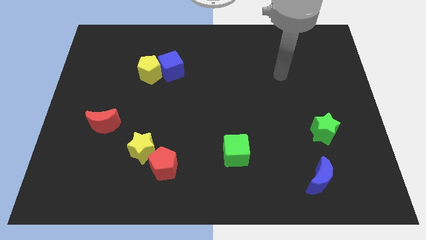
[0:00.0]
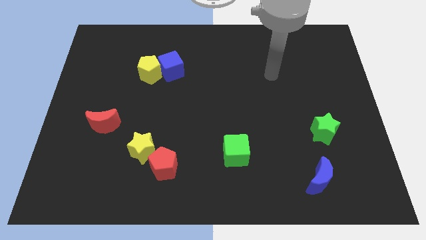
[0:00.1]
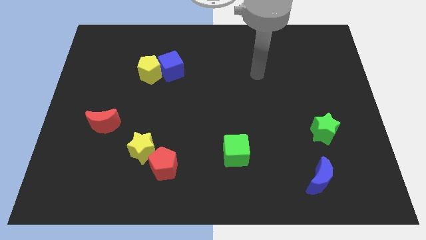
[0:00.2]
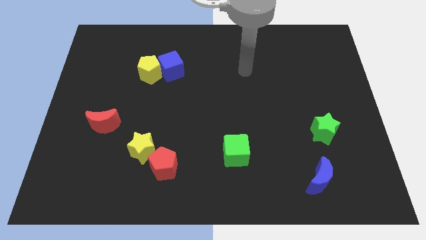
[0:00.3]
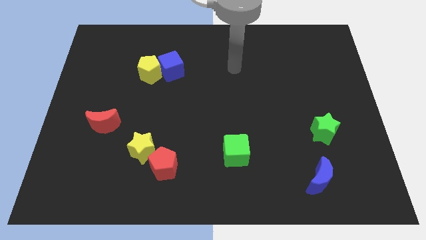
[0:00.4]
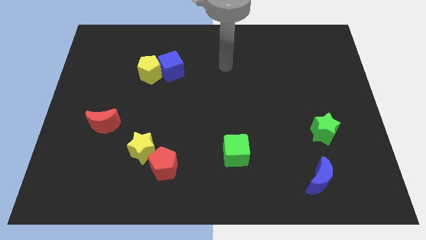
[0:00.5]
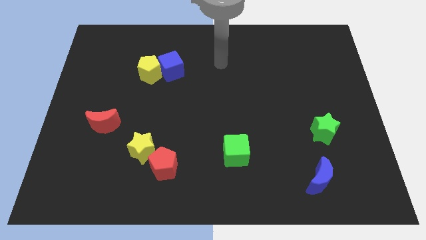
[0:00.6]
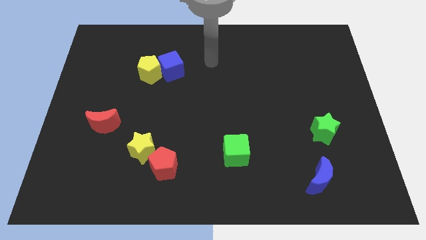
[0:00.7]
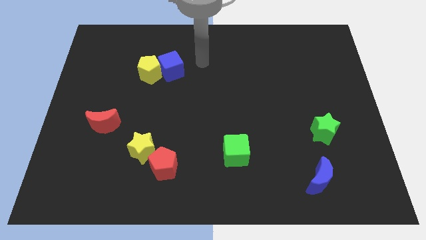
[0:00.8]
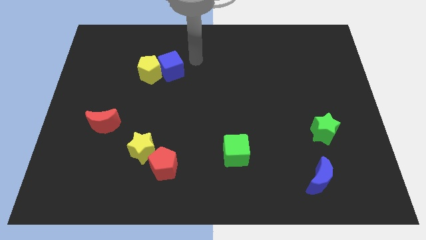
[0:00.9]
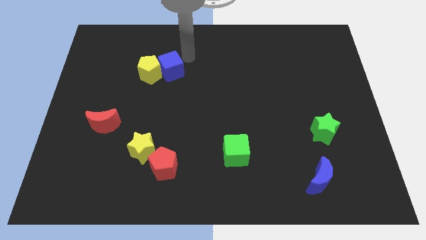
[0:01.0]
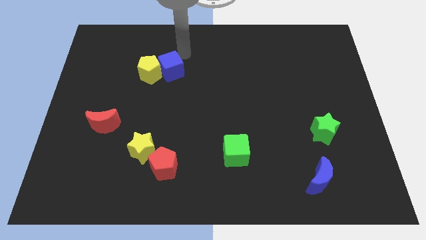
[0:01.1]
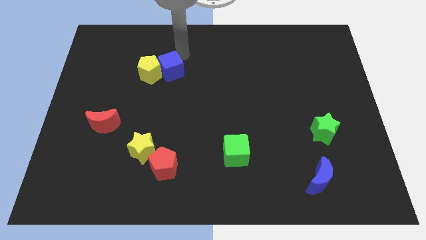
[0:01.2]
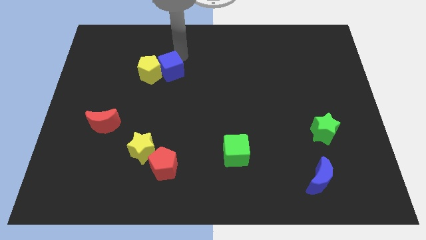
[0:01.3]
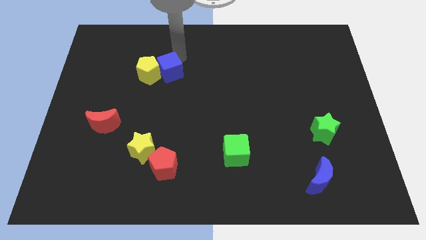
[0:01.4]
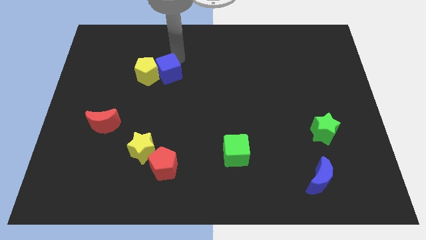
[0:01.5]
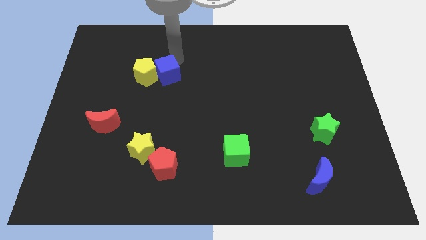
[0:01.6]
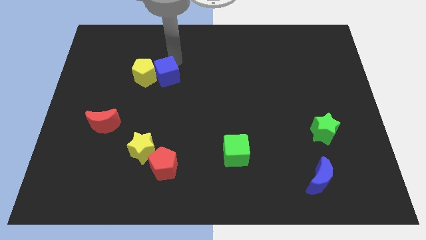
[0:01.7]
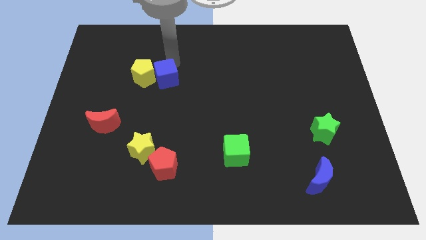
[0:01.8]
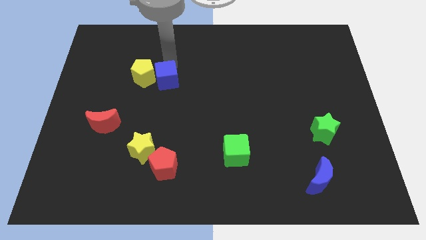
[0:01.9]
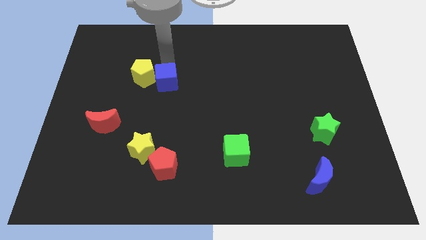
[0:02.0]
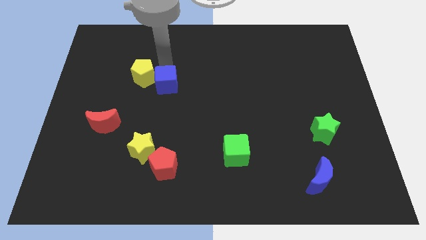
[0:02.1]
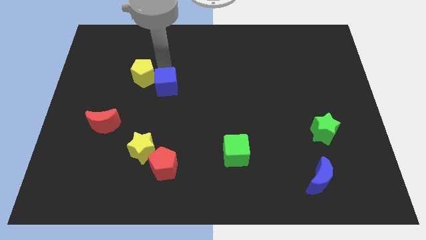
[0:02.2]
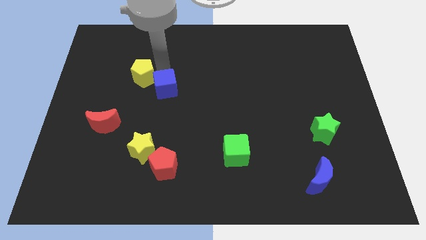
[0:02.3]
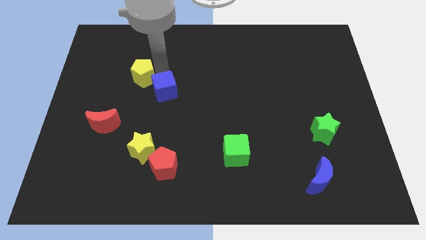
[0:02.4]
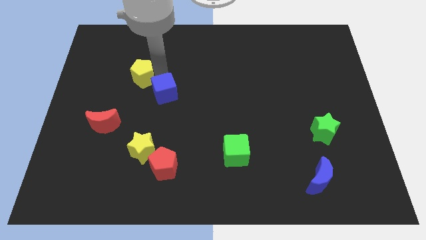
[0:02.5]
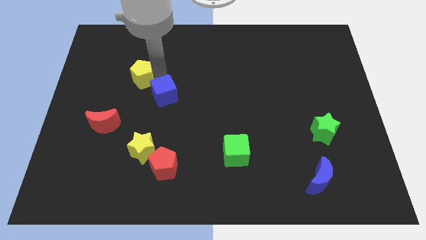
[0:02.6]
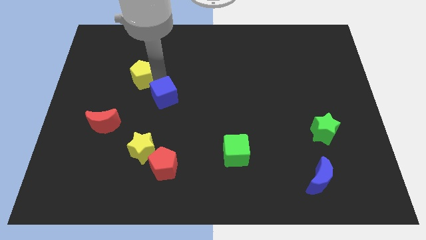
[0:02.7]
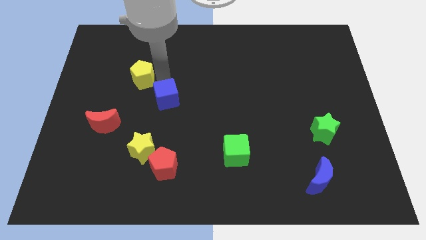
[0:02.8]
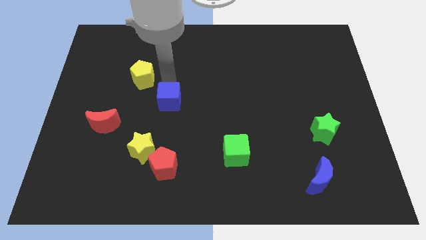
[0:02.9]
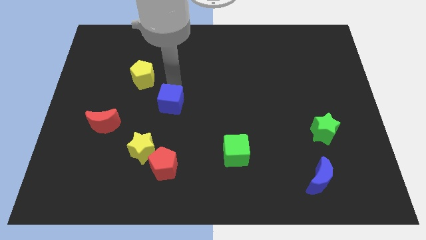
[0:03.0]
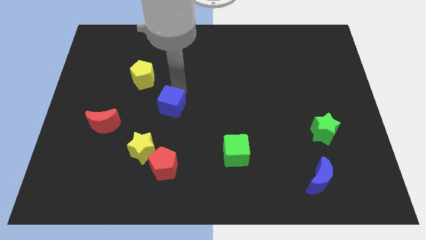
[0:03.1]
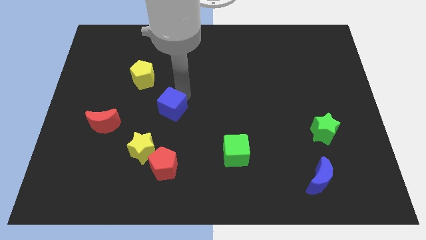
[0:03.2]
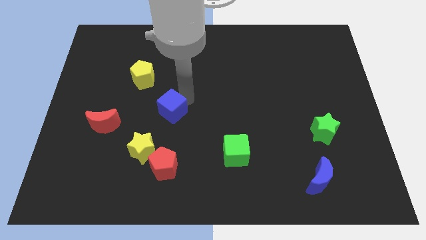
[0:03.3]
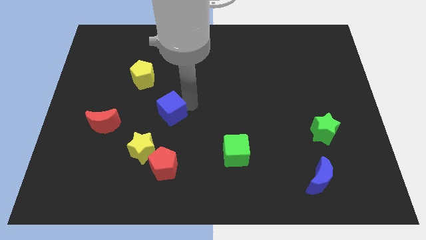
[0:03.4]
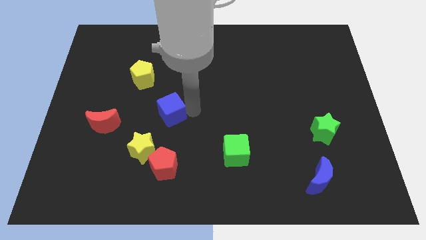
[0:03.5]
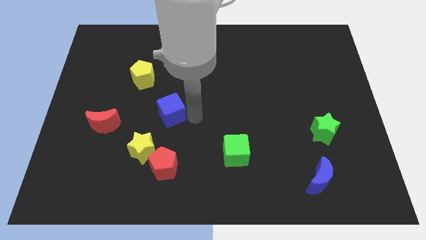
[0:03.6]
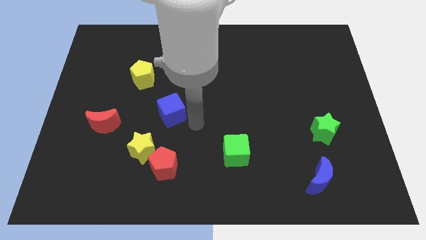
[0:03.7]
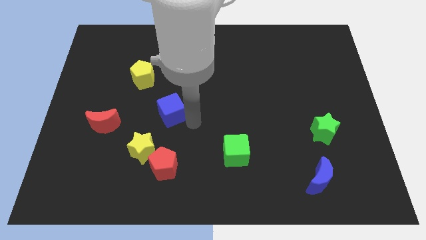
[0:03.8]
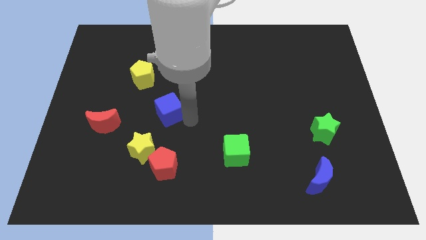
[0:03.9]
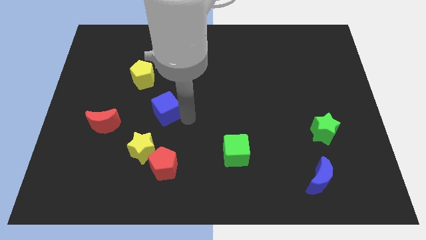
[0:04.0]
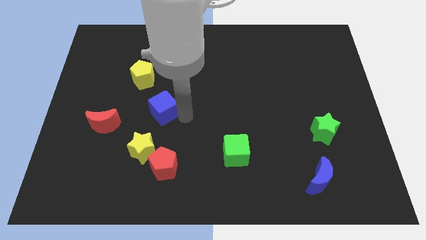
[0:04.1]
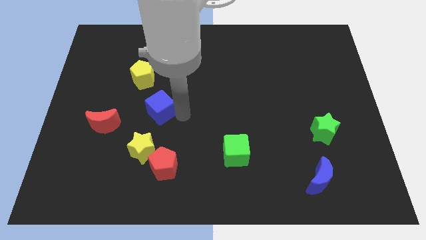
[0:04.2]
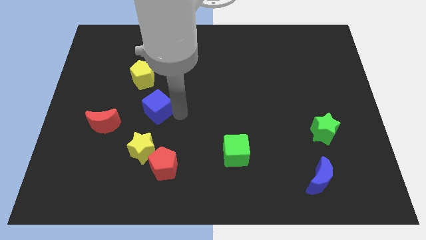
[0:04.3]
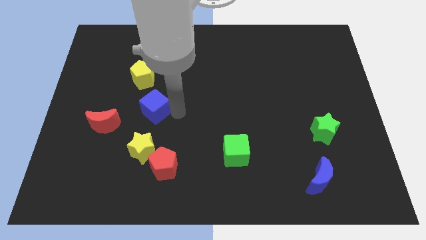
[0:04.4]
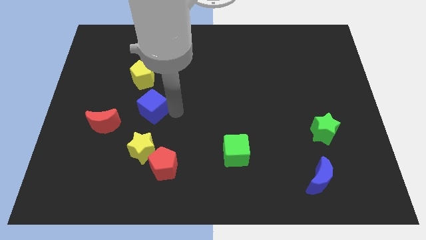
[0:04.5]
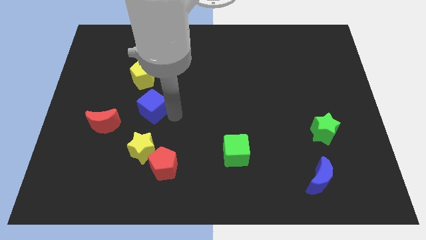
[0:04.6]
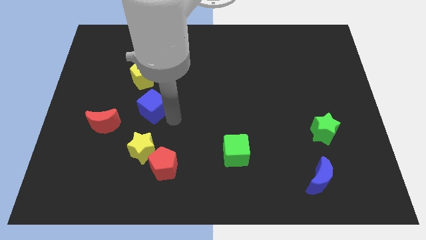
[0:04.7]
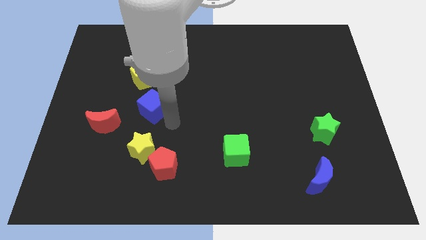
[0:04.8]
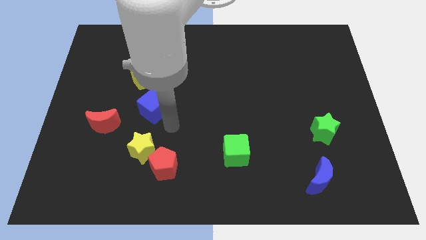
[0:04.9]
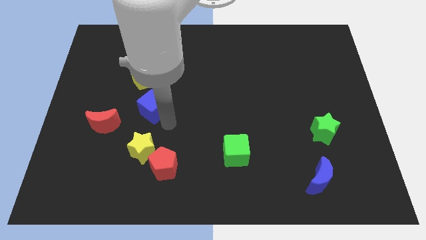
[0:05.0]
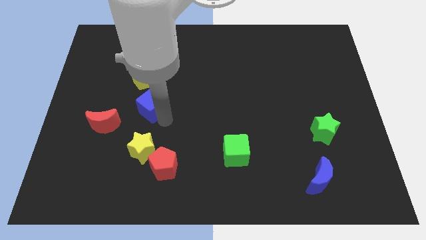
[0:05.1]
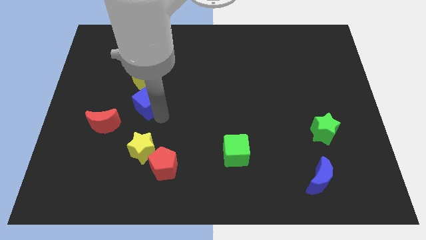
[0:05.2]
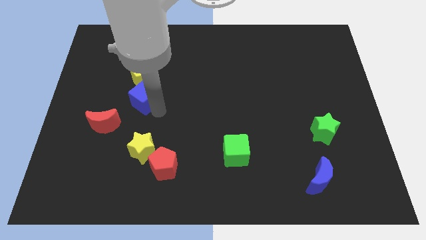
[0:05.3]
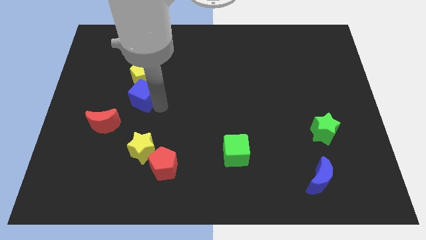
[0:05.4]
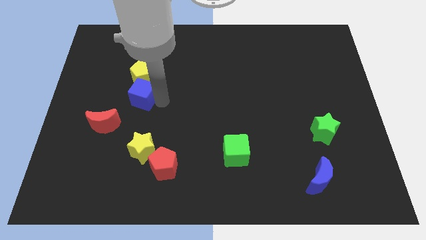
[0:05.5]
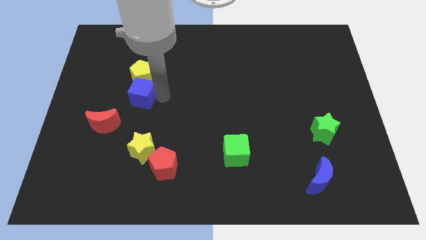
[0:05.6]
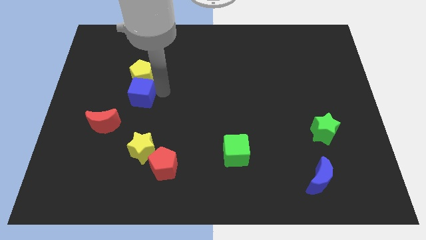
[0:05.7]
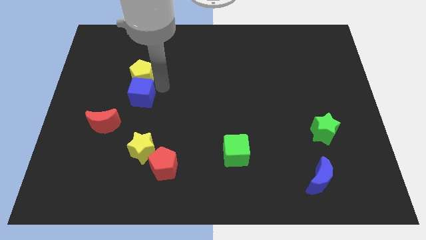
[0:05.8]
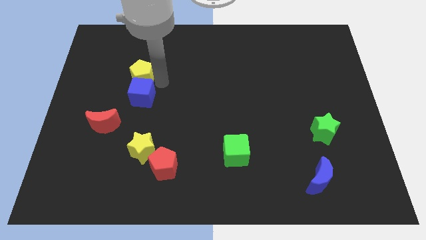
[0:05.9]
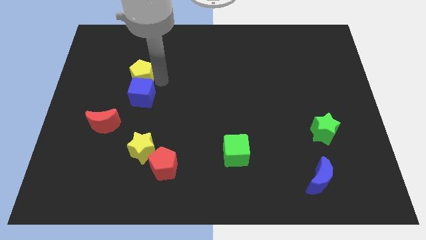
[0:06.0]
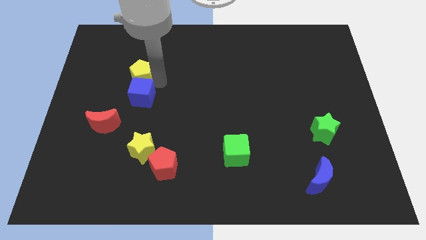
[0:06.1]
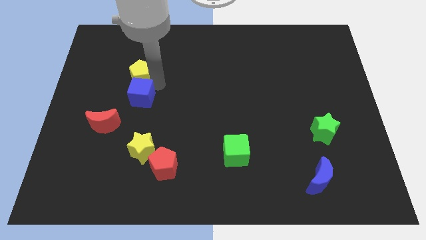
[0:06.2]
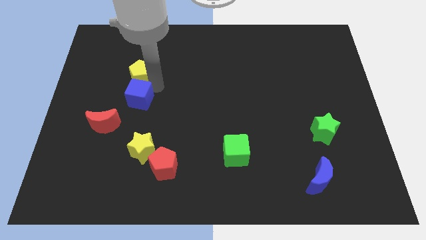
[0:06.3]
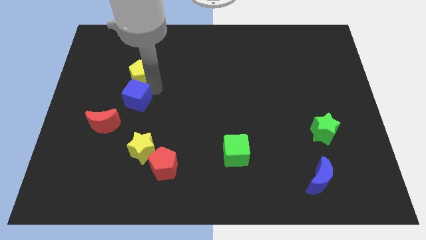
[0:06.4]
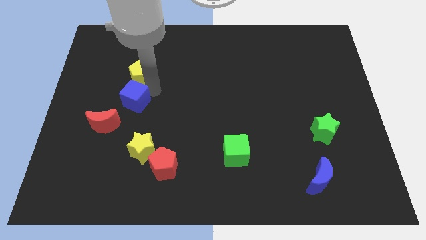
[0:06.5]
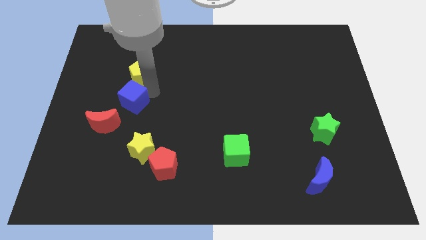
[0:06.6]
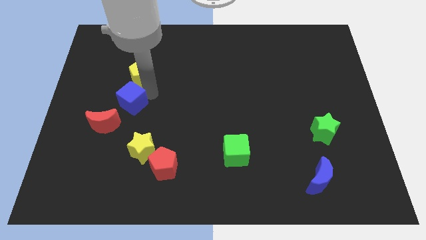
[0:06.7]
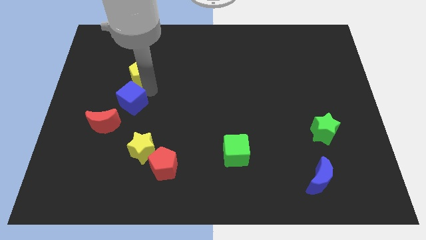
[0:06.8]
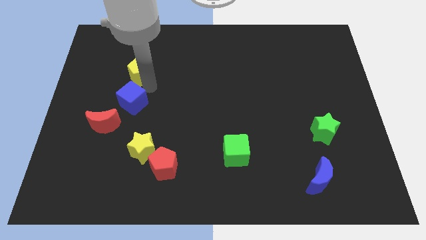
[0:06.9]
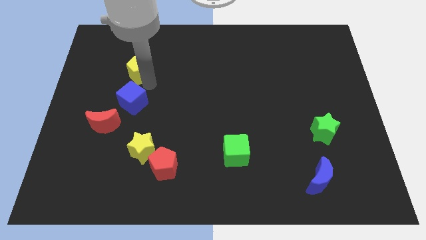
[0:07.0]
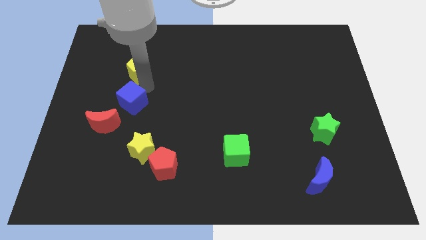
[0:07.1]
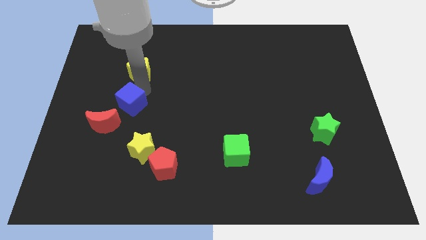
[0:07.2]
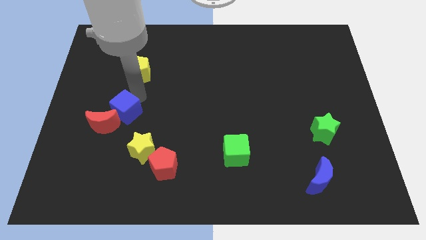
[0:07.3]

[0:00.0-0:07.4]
slide the blue cube towards the red moon
